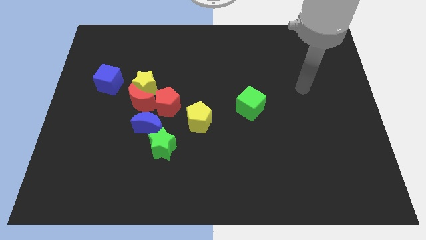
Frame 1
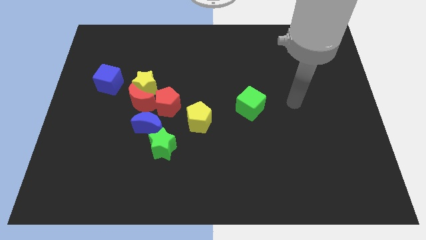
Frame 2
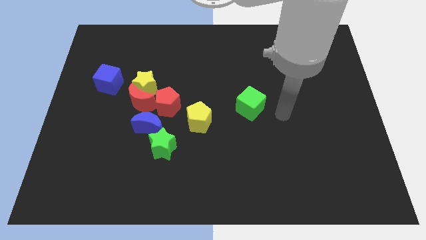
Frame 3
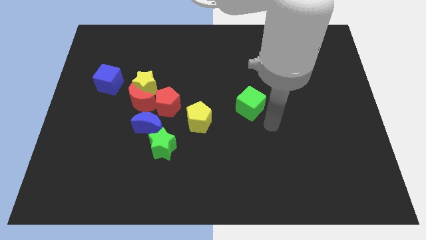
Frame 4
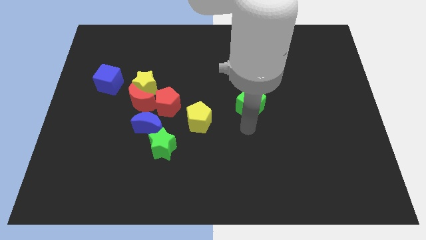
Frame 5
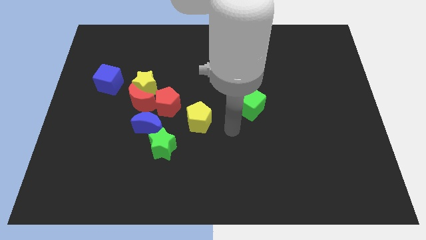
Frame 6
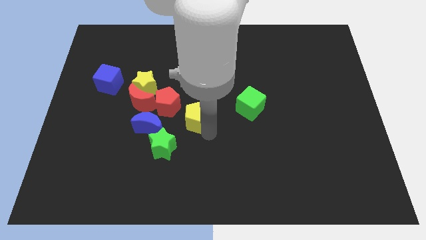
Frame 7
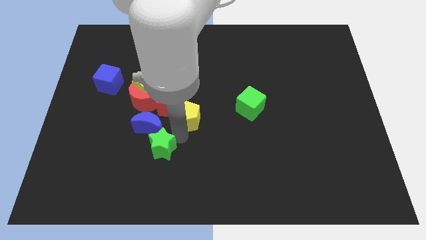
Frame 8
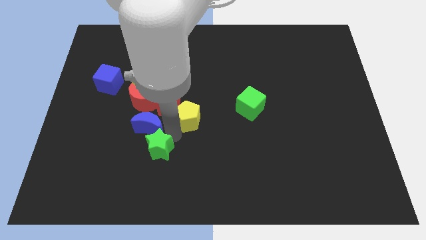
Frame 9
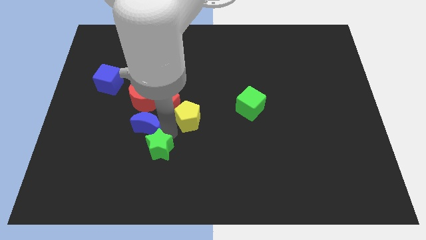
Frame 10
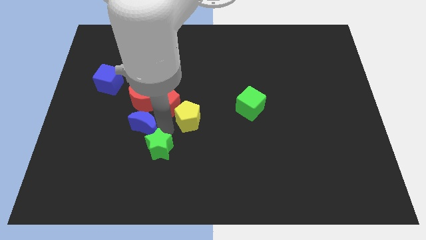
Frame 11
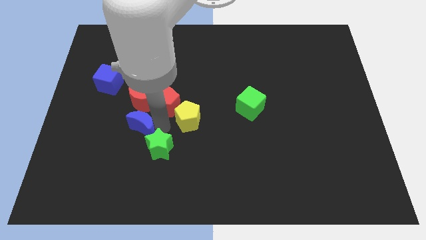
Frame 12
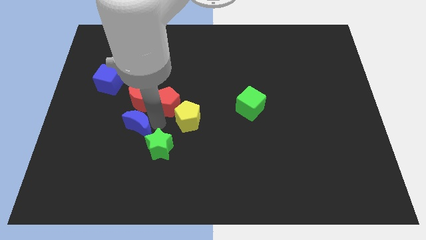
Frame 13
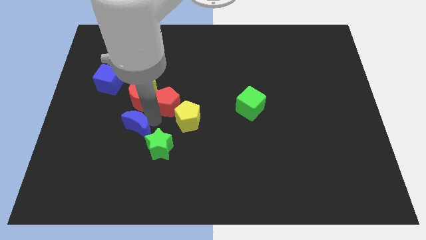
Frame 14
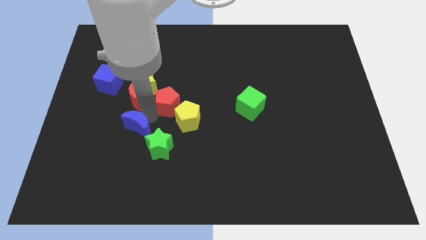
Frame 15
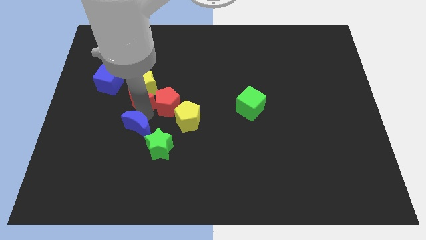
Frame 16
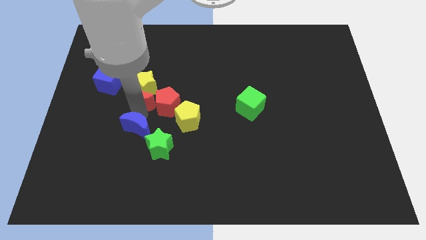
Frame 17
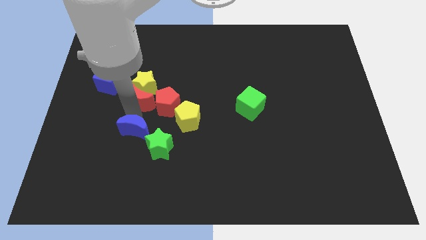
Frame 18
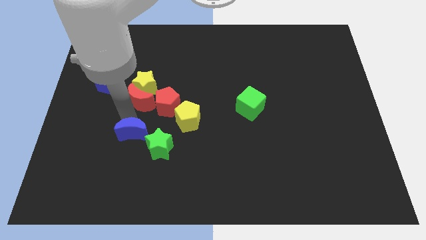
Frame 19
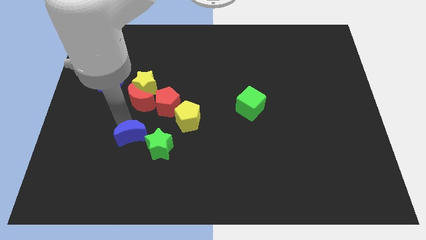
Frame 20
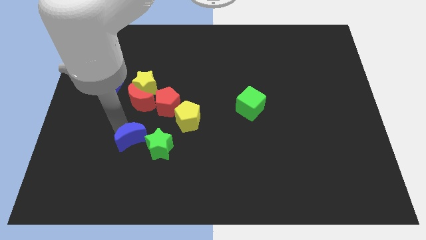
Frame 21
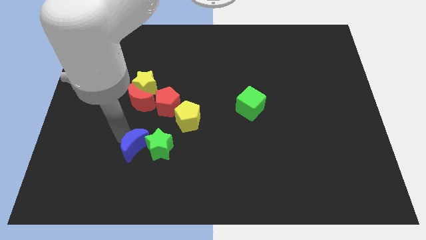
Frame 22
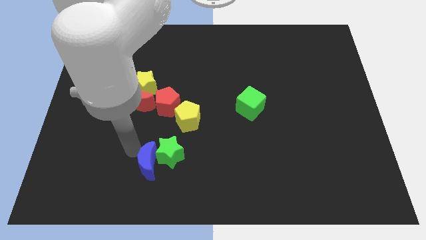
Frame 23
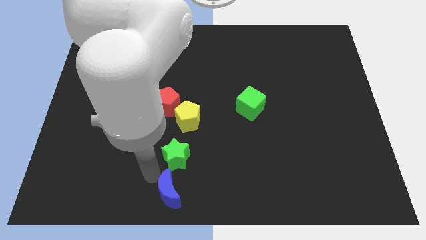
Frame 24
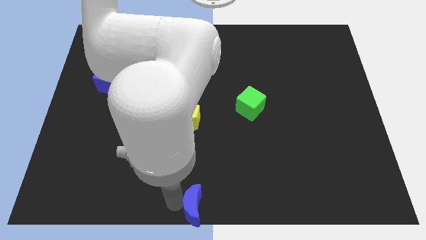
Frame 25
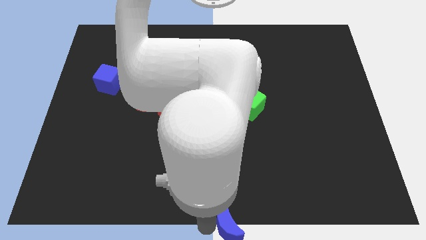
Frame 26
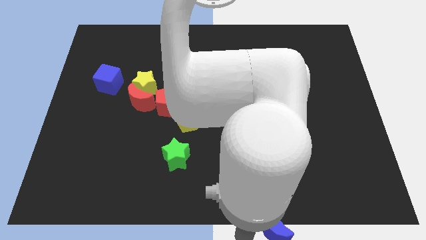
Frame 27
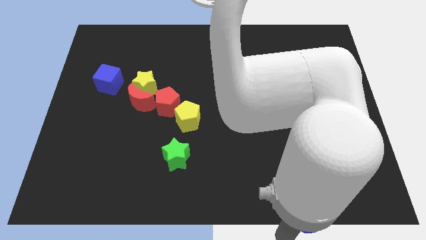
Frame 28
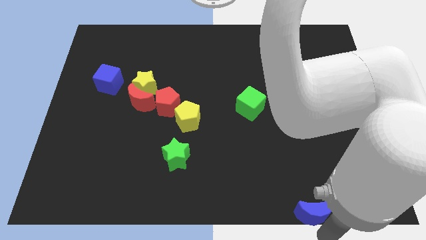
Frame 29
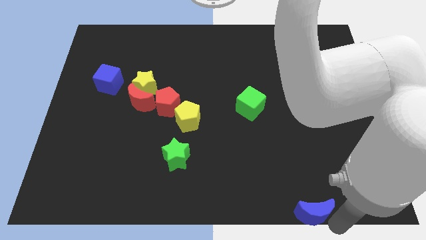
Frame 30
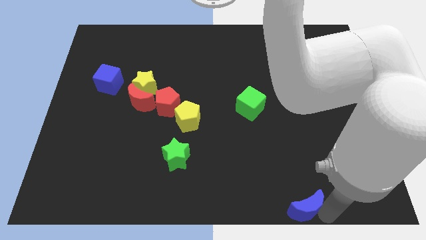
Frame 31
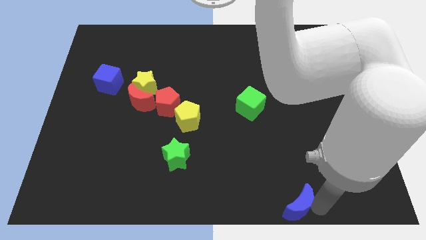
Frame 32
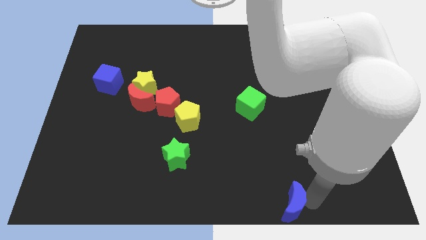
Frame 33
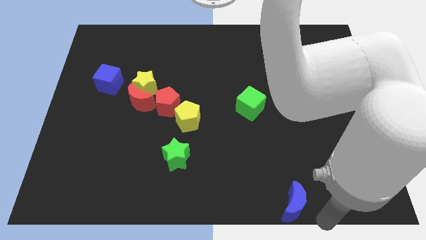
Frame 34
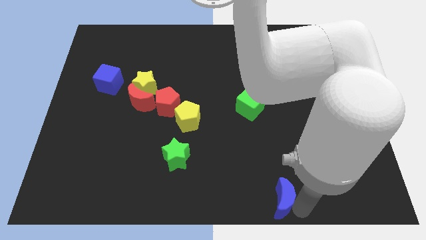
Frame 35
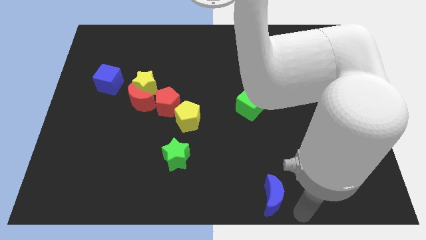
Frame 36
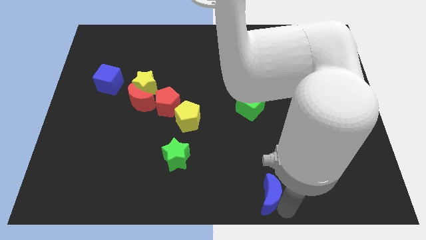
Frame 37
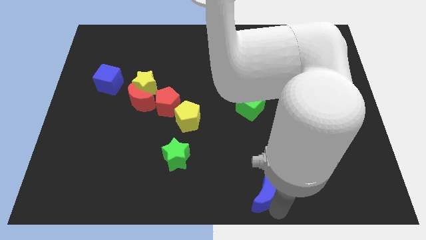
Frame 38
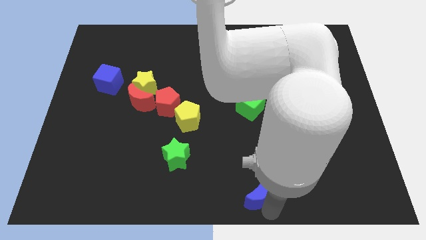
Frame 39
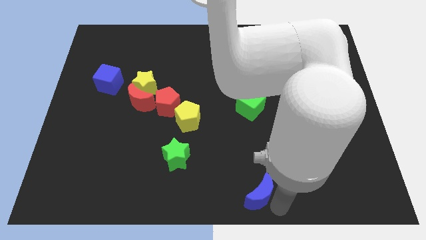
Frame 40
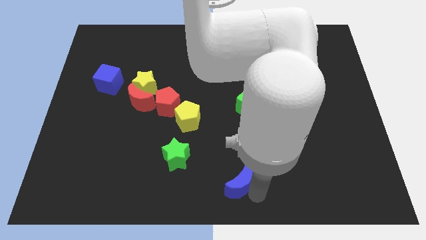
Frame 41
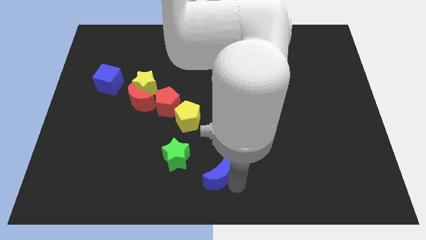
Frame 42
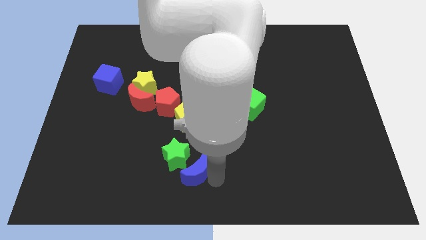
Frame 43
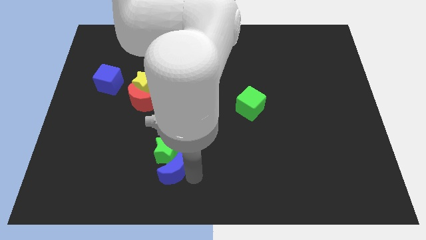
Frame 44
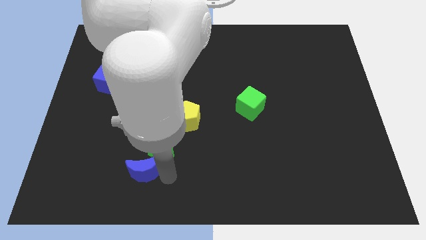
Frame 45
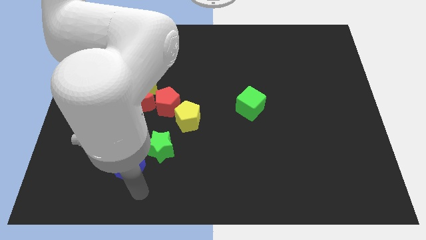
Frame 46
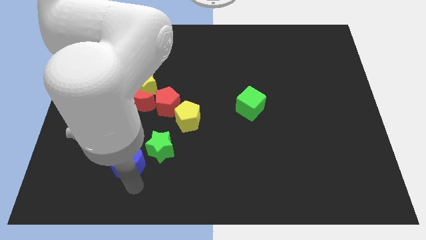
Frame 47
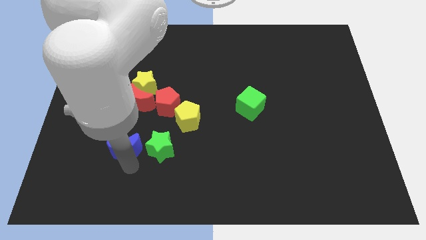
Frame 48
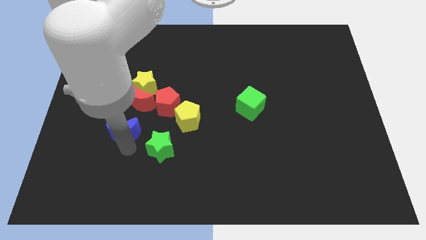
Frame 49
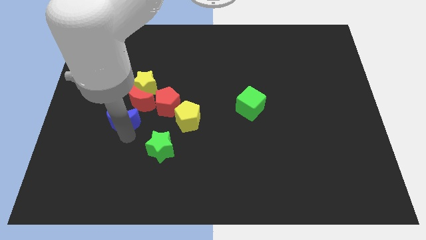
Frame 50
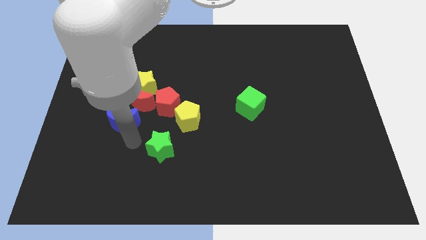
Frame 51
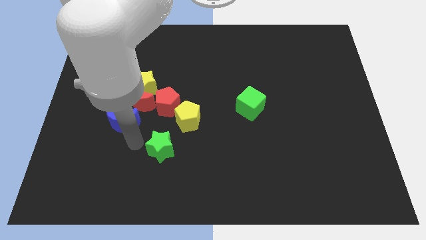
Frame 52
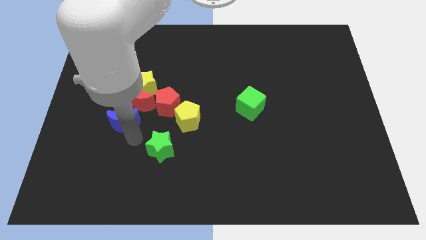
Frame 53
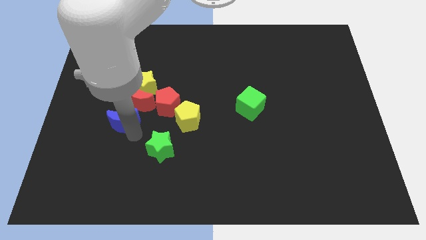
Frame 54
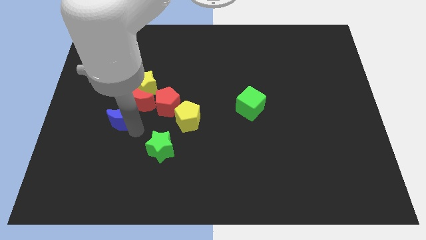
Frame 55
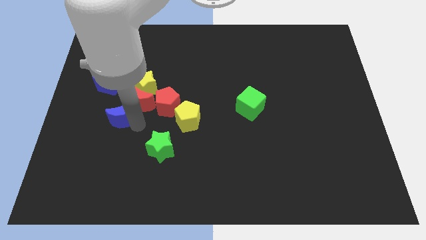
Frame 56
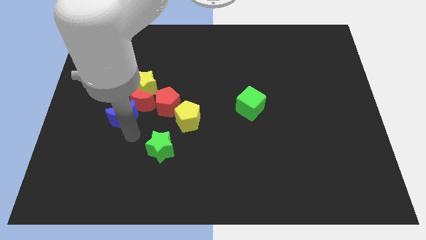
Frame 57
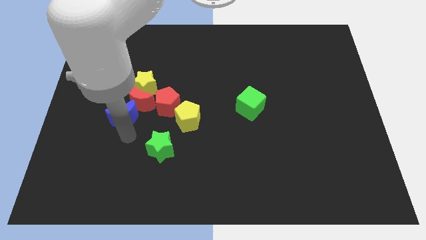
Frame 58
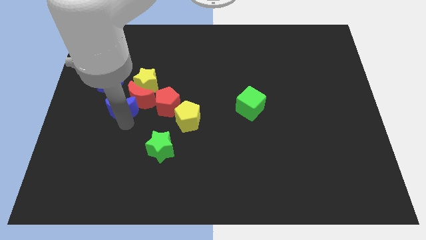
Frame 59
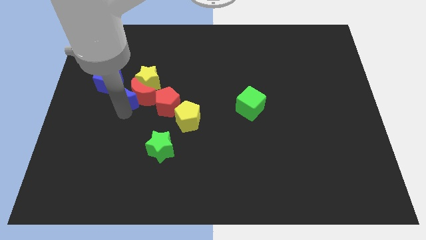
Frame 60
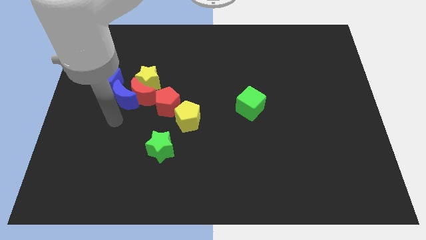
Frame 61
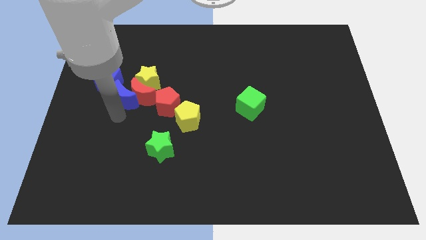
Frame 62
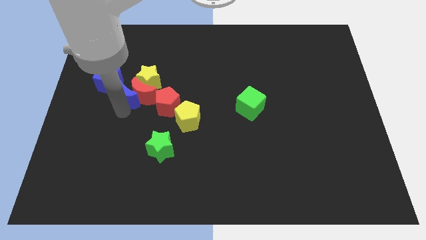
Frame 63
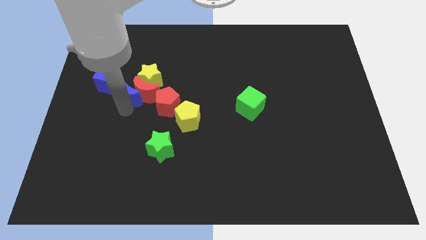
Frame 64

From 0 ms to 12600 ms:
push the blue moon somewhat upwards

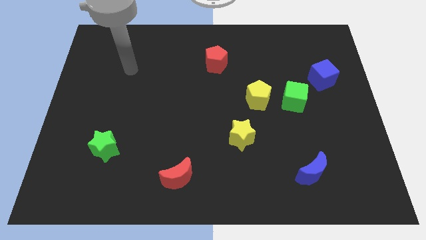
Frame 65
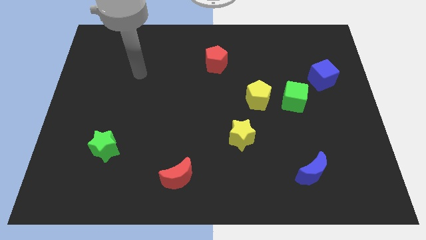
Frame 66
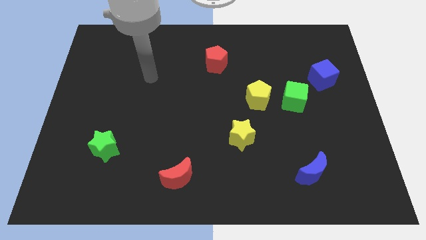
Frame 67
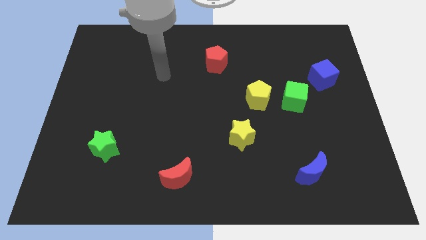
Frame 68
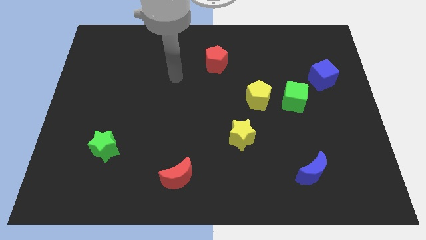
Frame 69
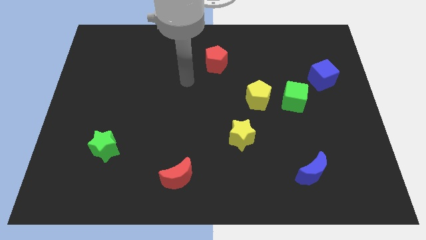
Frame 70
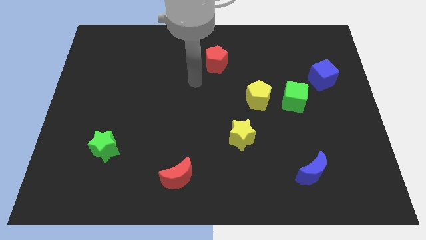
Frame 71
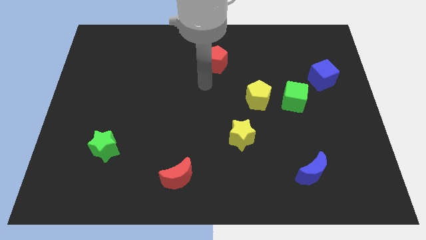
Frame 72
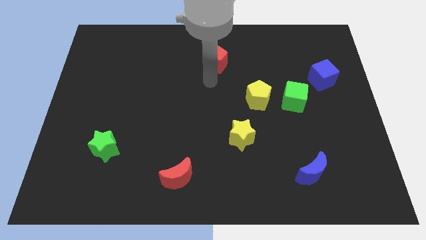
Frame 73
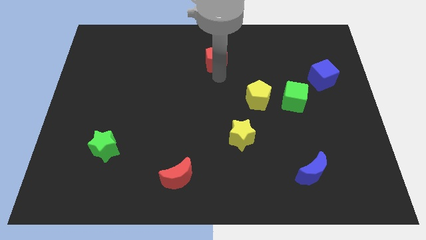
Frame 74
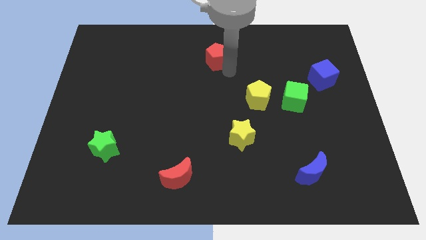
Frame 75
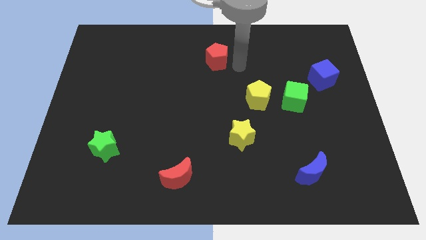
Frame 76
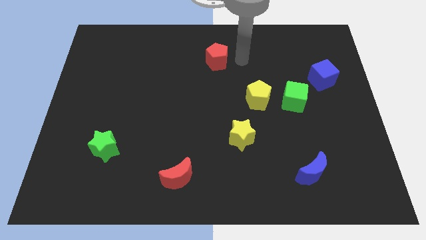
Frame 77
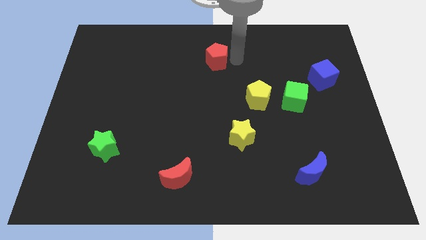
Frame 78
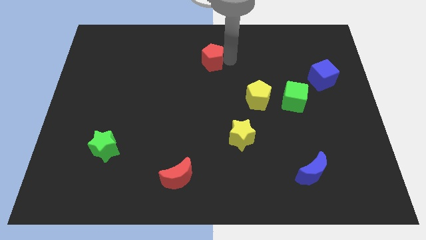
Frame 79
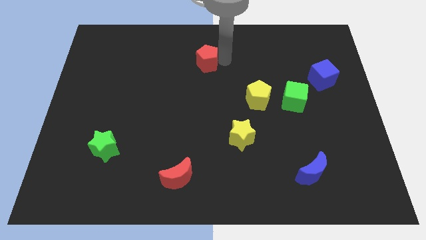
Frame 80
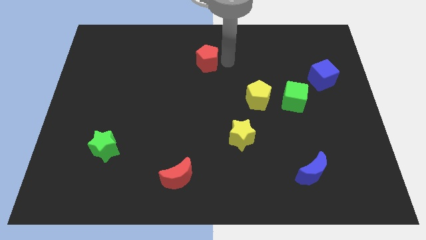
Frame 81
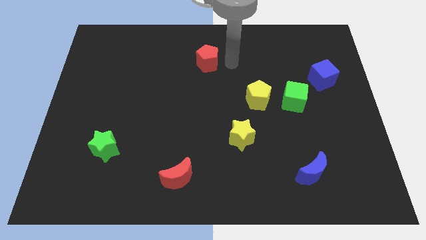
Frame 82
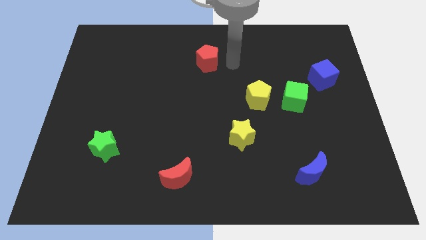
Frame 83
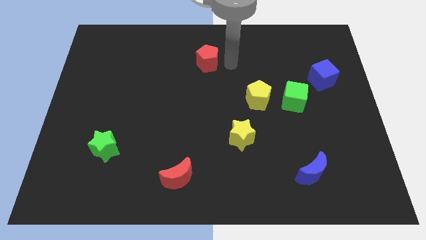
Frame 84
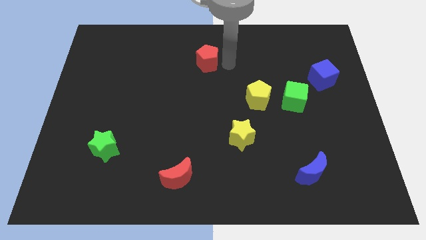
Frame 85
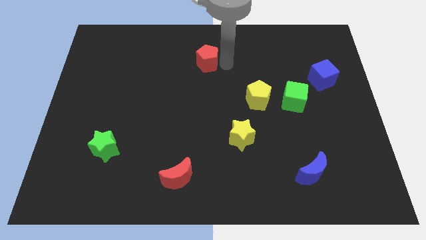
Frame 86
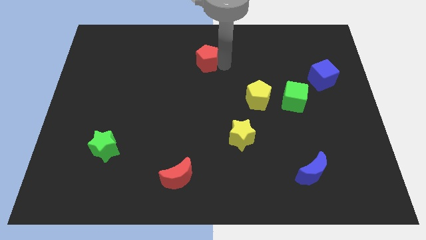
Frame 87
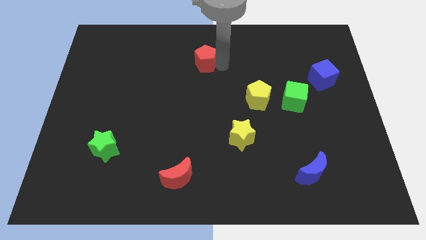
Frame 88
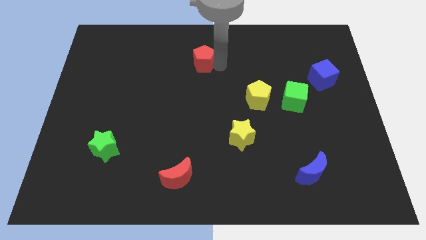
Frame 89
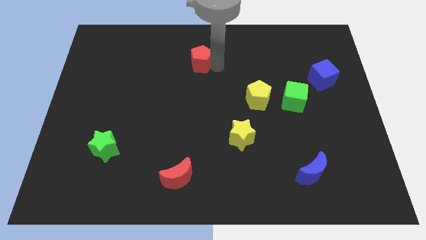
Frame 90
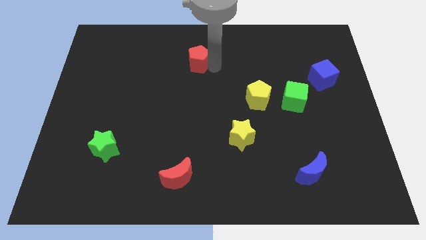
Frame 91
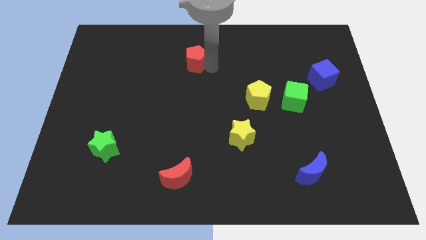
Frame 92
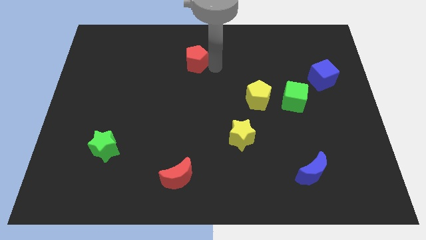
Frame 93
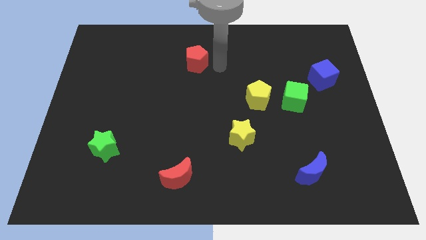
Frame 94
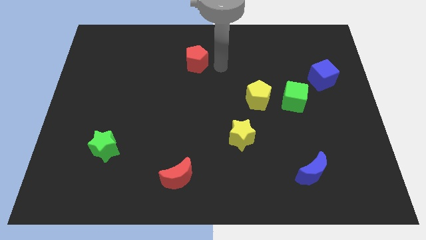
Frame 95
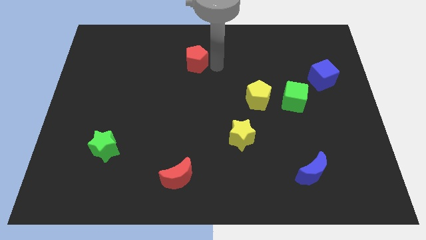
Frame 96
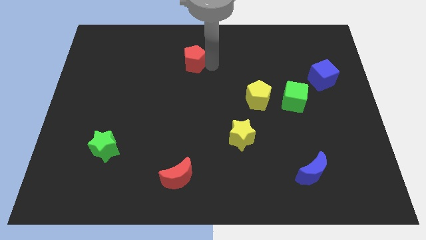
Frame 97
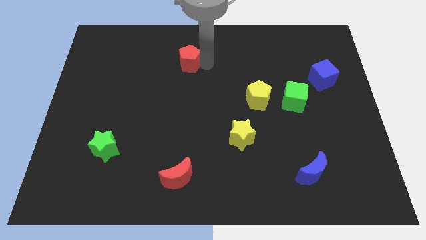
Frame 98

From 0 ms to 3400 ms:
slide the red pentagon somewhat left
